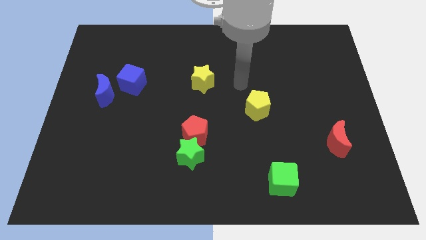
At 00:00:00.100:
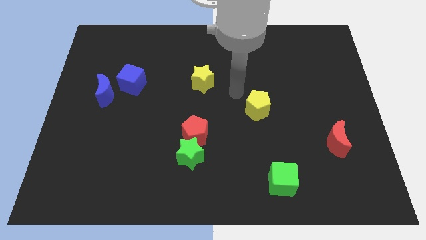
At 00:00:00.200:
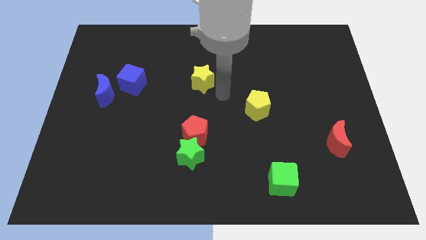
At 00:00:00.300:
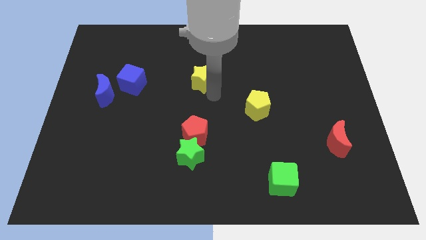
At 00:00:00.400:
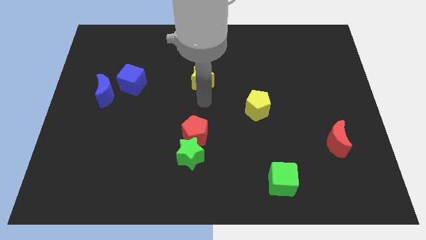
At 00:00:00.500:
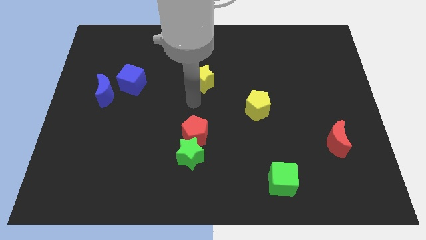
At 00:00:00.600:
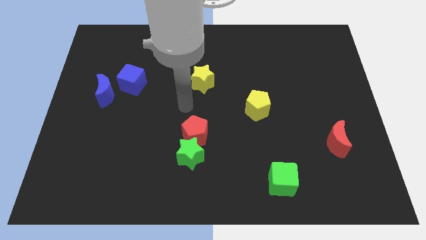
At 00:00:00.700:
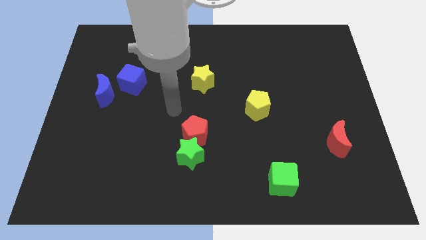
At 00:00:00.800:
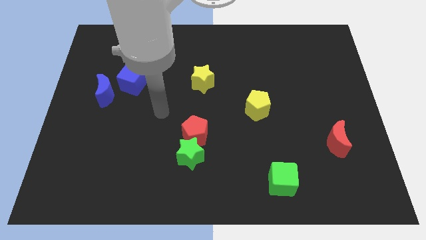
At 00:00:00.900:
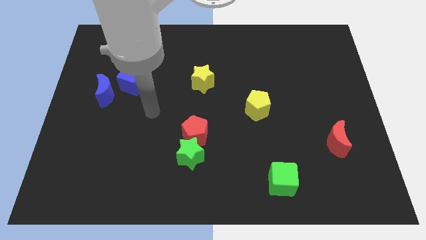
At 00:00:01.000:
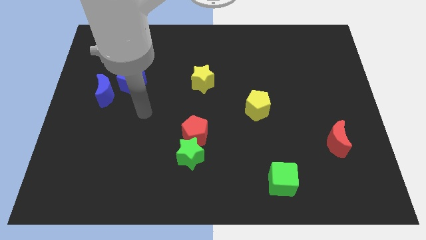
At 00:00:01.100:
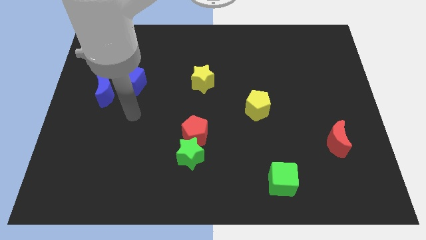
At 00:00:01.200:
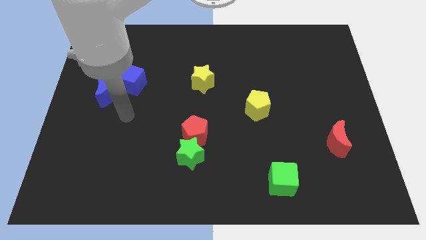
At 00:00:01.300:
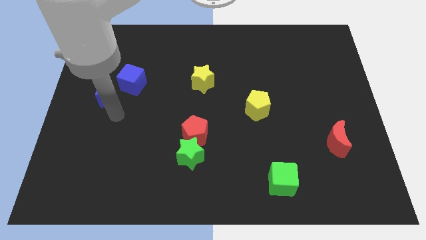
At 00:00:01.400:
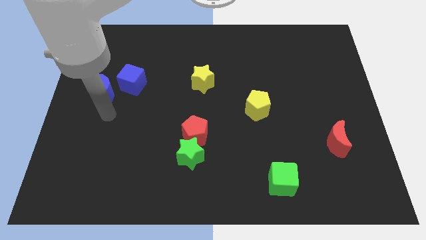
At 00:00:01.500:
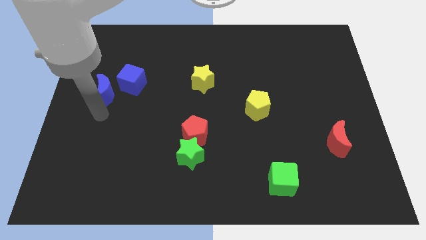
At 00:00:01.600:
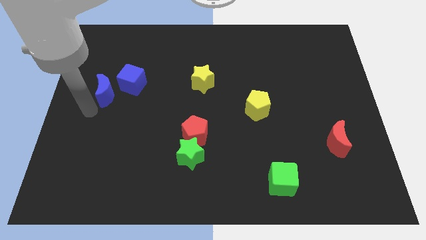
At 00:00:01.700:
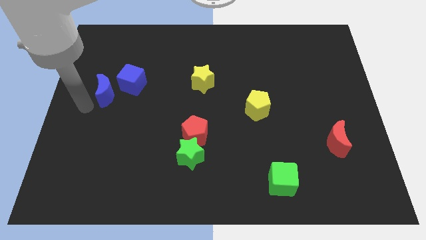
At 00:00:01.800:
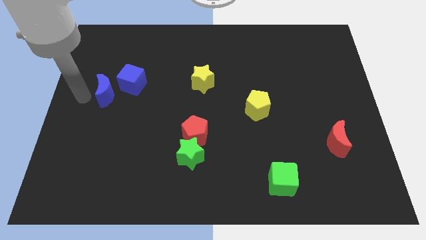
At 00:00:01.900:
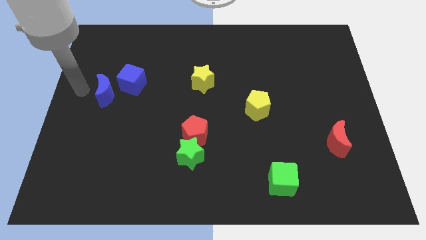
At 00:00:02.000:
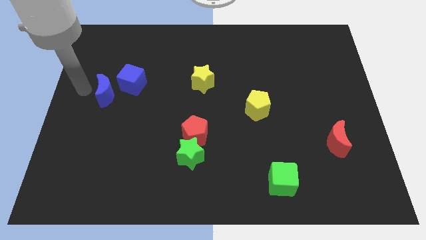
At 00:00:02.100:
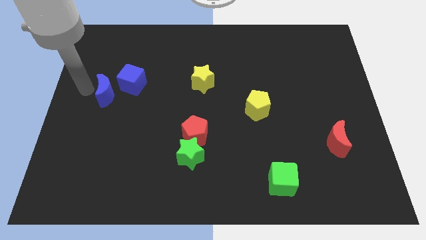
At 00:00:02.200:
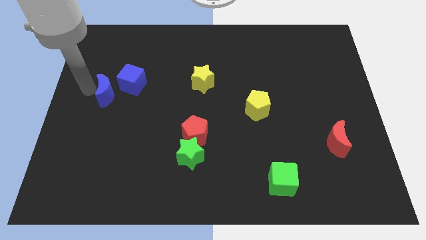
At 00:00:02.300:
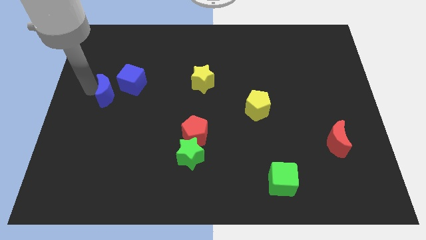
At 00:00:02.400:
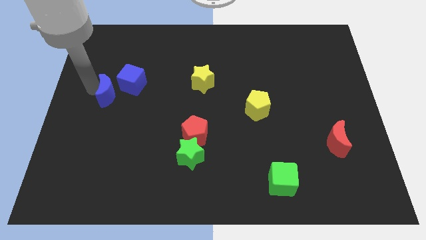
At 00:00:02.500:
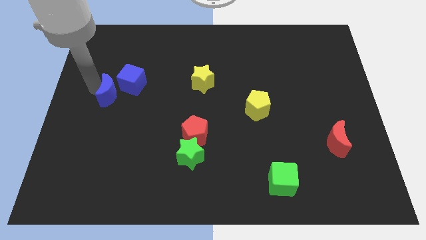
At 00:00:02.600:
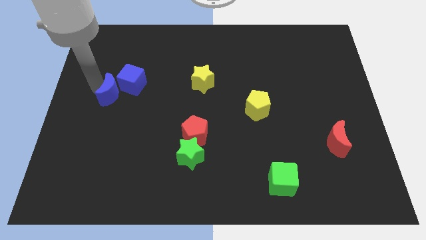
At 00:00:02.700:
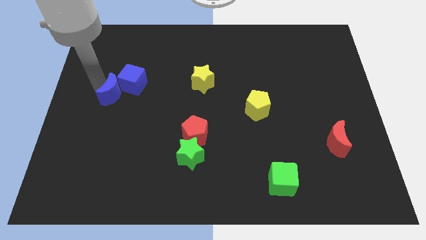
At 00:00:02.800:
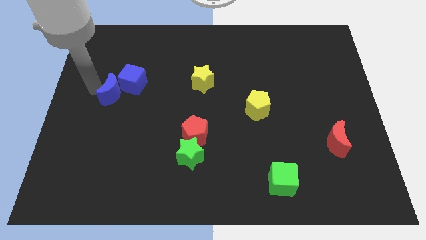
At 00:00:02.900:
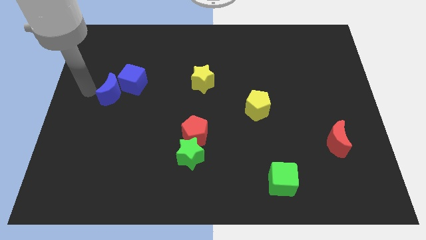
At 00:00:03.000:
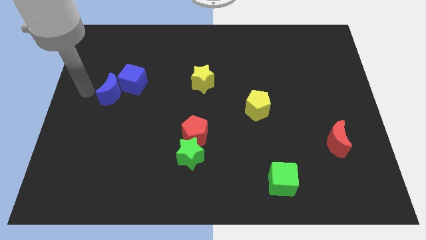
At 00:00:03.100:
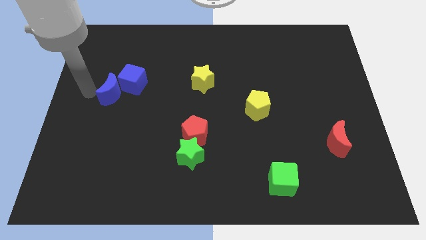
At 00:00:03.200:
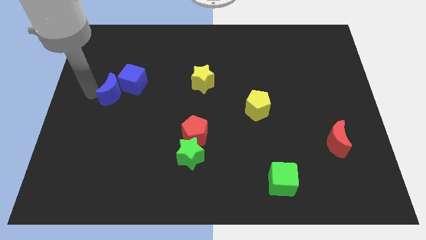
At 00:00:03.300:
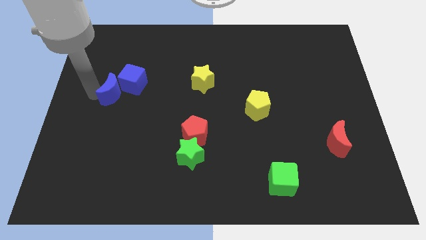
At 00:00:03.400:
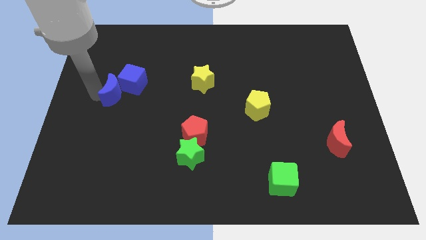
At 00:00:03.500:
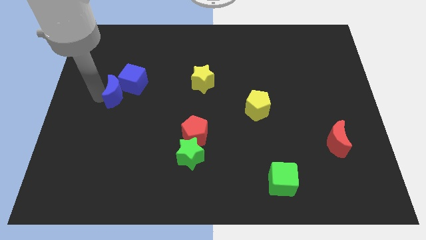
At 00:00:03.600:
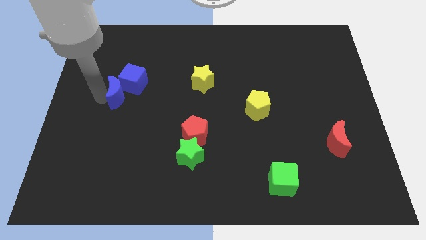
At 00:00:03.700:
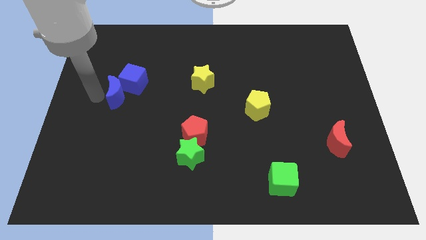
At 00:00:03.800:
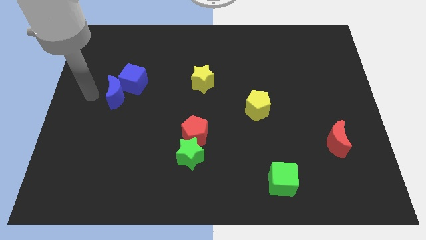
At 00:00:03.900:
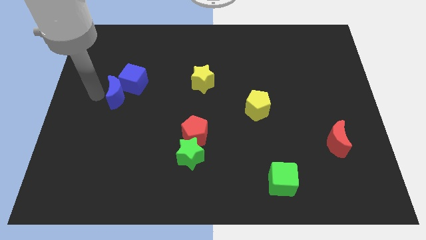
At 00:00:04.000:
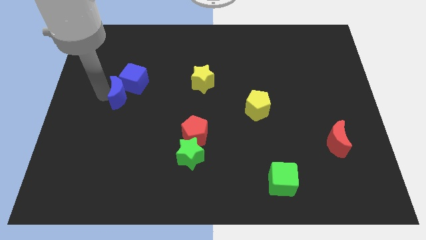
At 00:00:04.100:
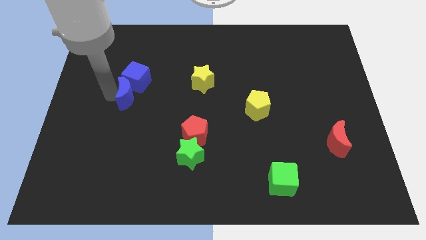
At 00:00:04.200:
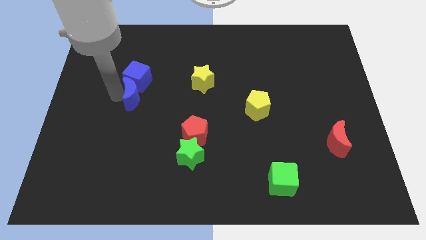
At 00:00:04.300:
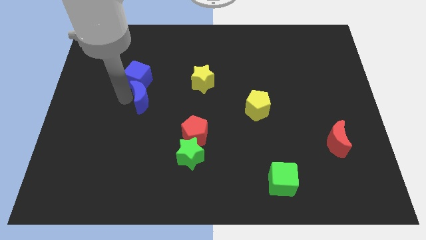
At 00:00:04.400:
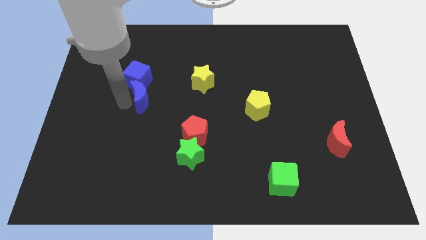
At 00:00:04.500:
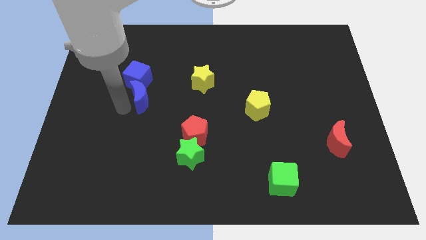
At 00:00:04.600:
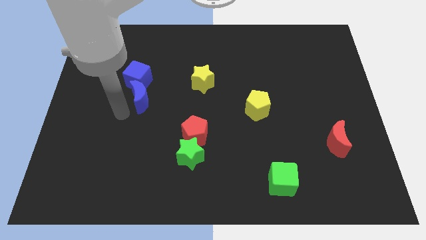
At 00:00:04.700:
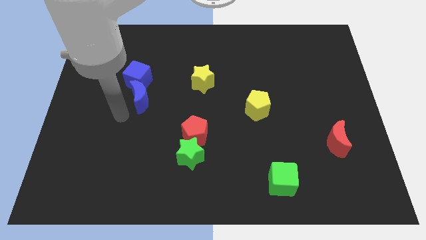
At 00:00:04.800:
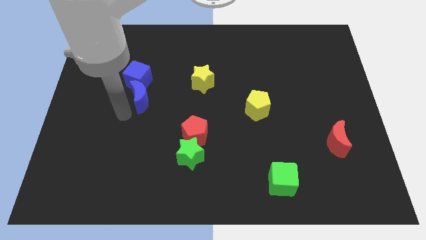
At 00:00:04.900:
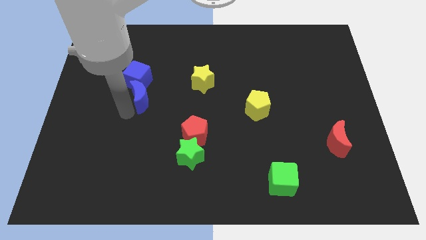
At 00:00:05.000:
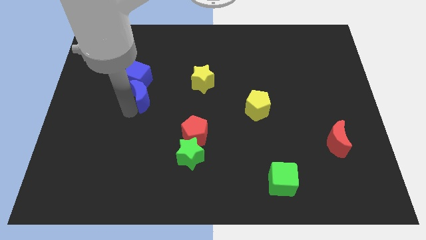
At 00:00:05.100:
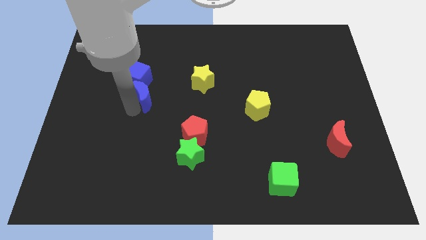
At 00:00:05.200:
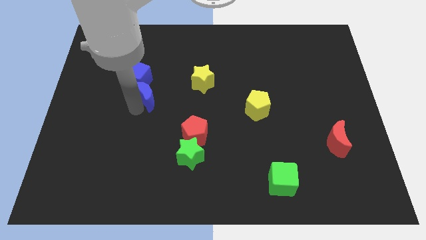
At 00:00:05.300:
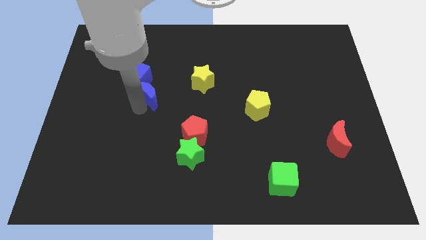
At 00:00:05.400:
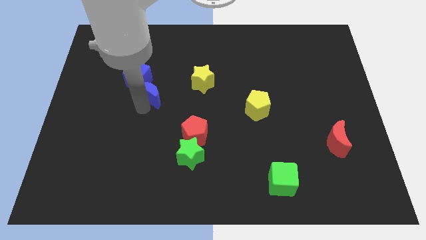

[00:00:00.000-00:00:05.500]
move the blue moon to the left side of the yellow star
